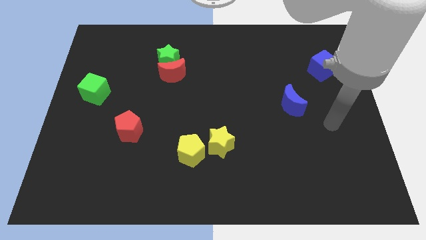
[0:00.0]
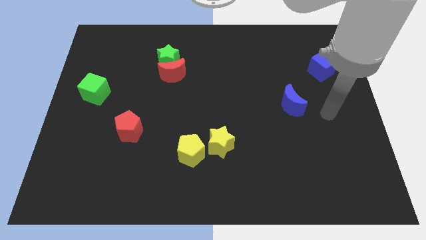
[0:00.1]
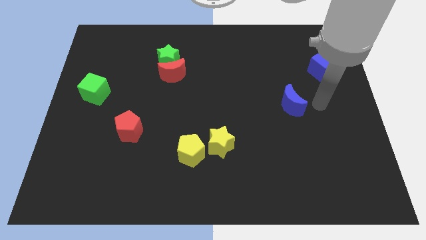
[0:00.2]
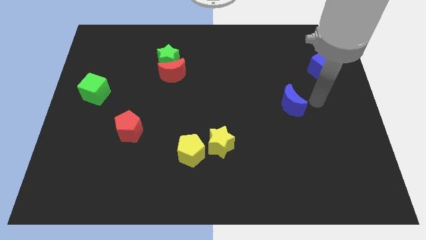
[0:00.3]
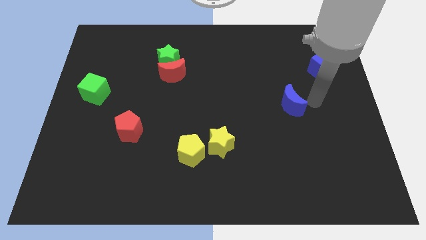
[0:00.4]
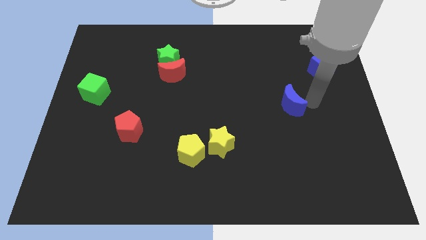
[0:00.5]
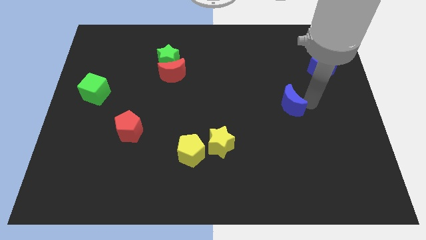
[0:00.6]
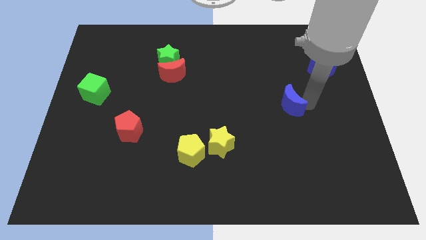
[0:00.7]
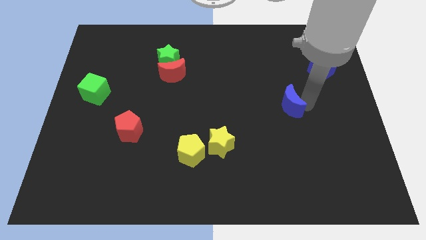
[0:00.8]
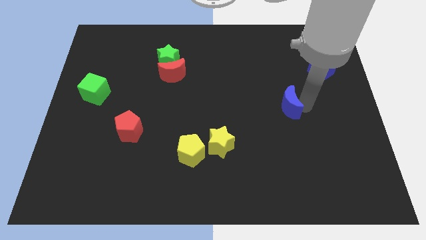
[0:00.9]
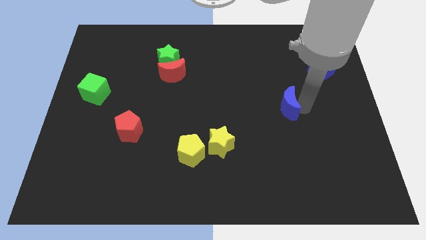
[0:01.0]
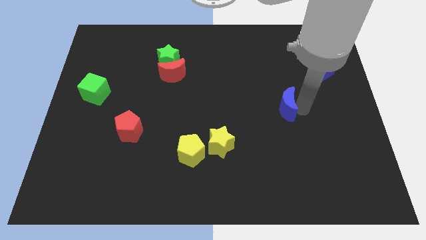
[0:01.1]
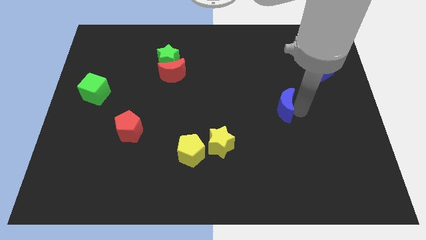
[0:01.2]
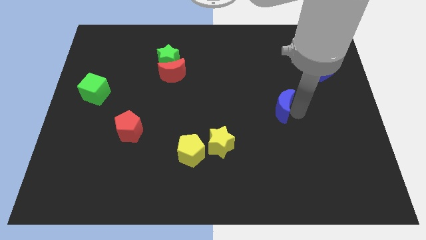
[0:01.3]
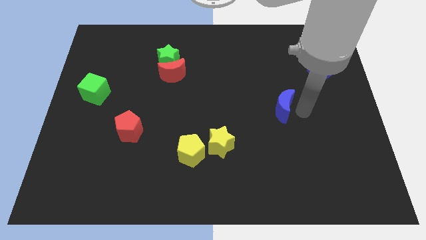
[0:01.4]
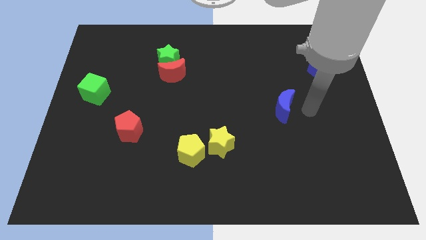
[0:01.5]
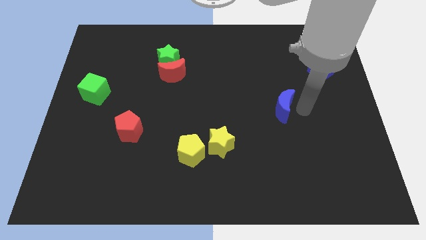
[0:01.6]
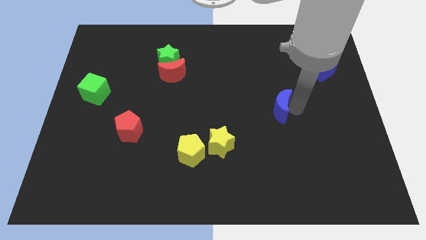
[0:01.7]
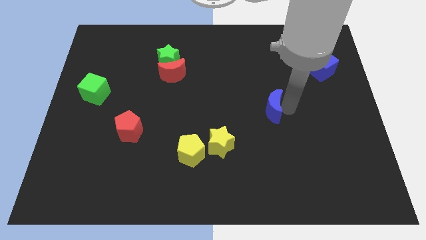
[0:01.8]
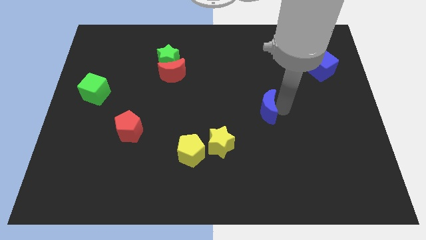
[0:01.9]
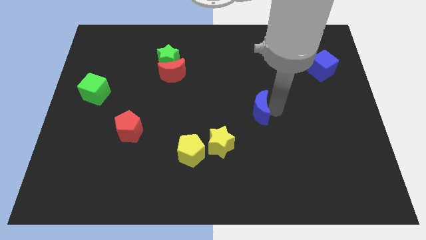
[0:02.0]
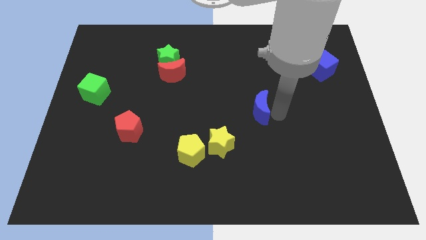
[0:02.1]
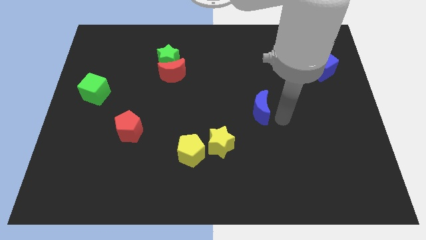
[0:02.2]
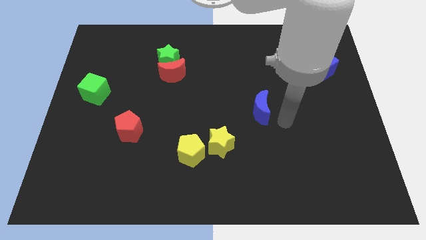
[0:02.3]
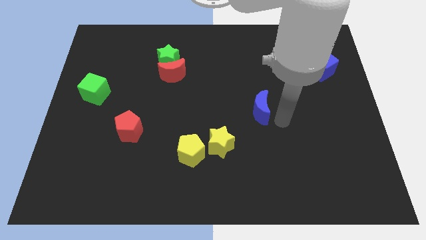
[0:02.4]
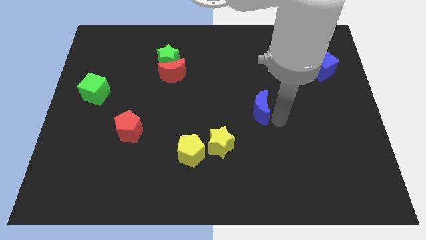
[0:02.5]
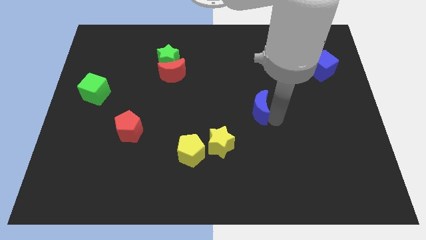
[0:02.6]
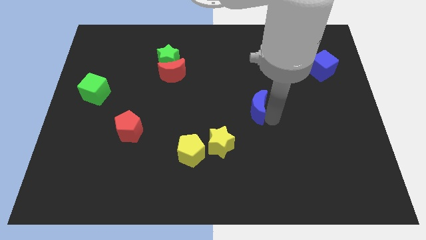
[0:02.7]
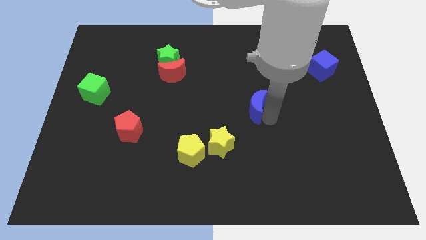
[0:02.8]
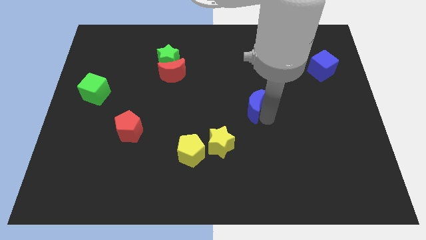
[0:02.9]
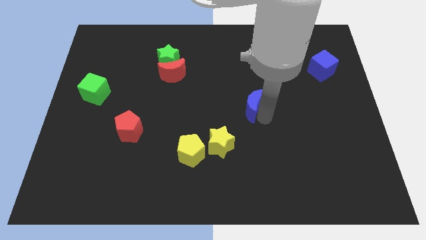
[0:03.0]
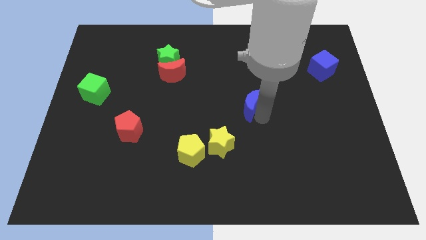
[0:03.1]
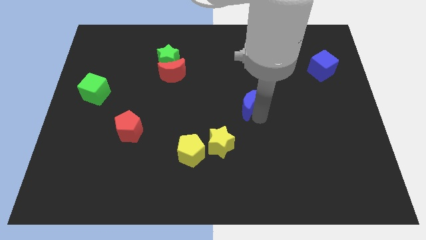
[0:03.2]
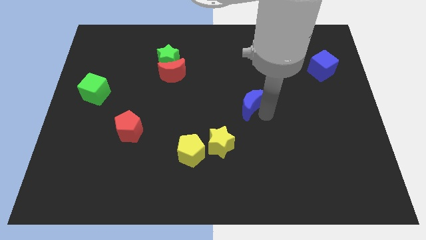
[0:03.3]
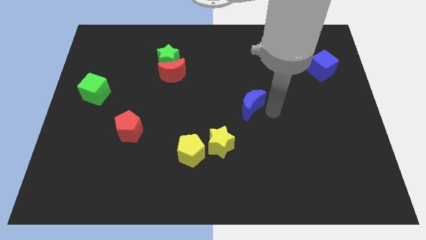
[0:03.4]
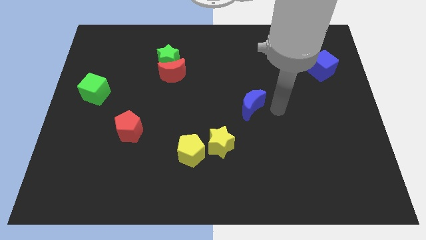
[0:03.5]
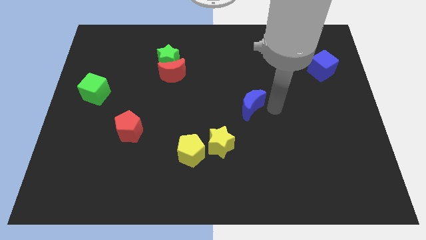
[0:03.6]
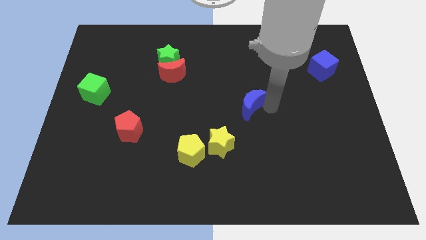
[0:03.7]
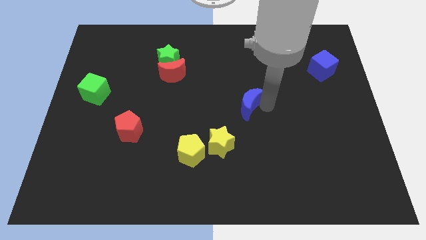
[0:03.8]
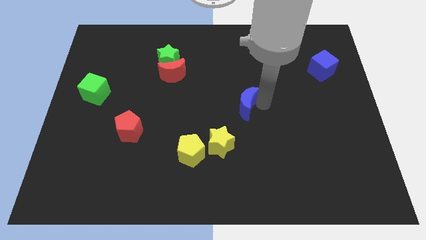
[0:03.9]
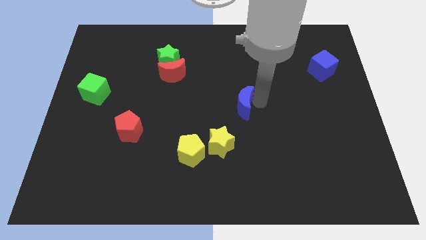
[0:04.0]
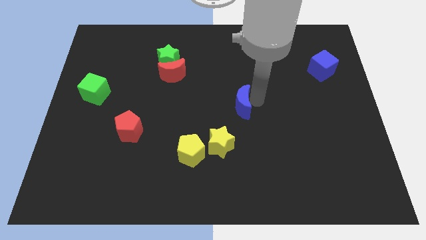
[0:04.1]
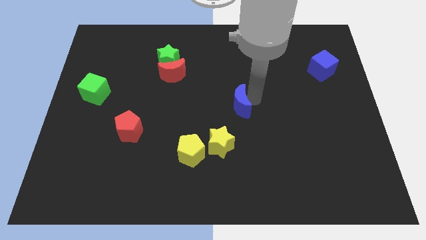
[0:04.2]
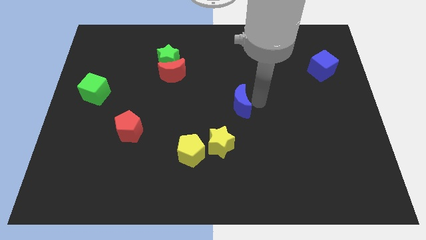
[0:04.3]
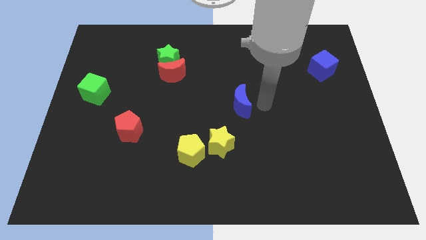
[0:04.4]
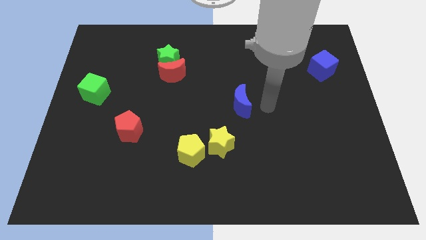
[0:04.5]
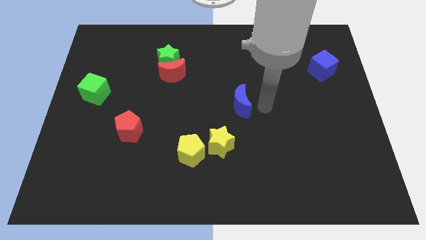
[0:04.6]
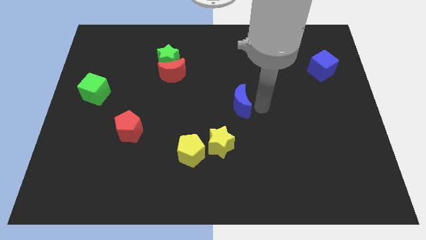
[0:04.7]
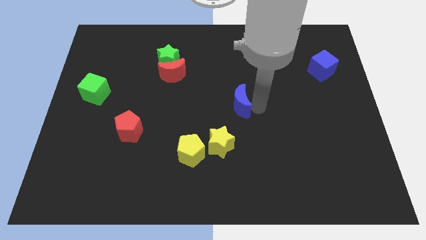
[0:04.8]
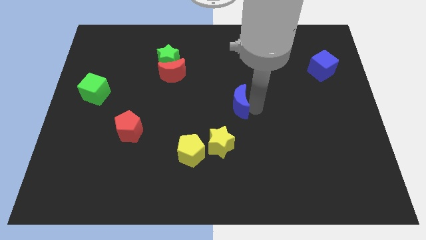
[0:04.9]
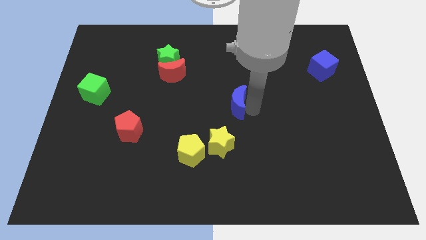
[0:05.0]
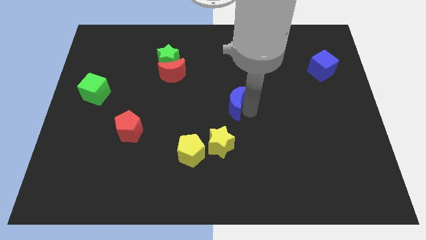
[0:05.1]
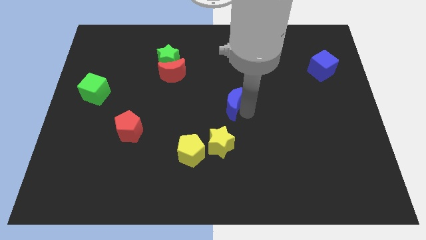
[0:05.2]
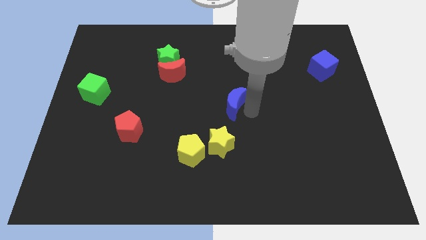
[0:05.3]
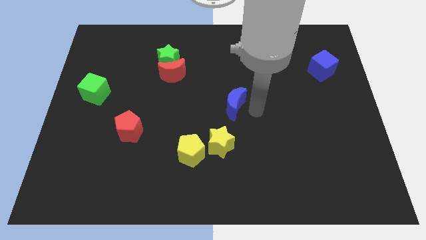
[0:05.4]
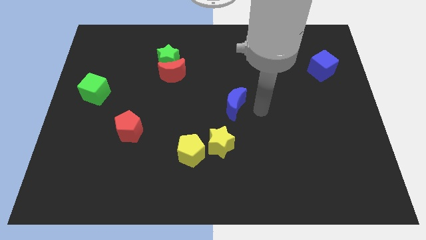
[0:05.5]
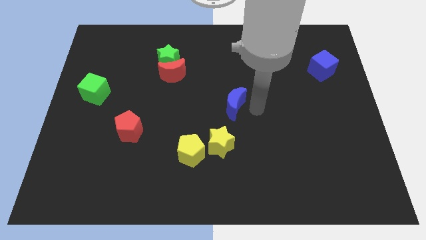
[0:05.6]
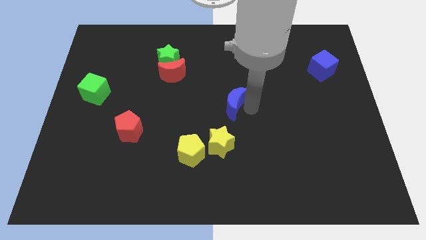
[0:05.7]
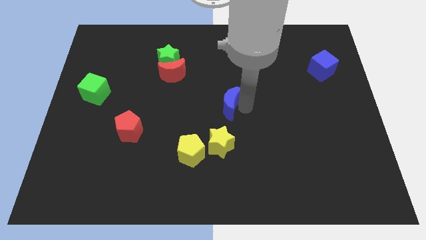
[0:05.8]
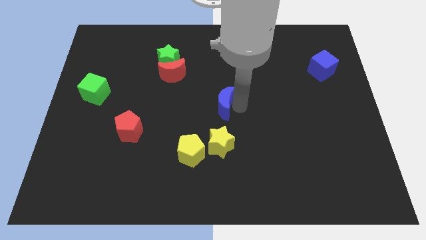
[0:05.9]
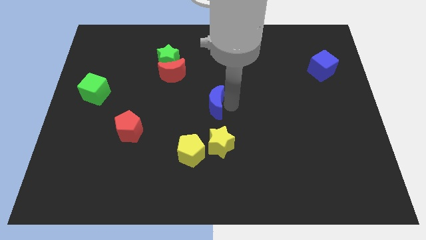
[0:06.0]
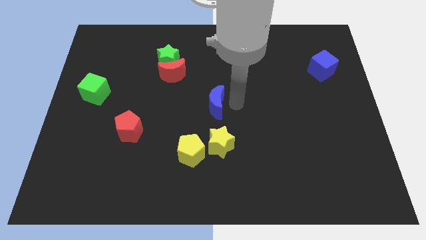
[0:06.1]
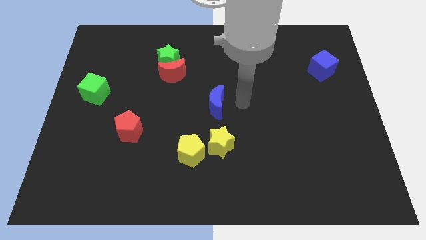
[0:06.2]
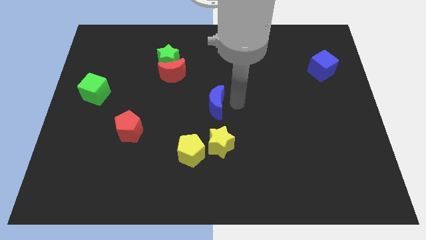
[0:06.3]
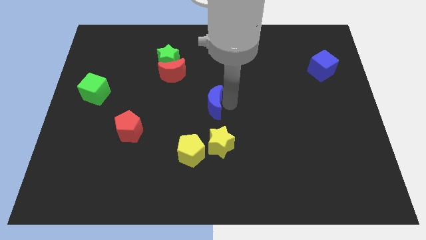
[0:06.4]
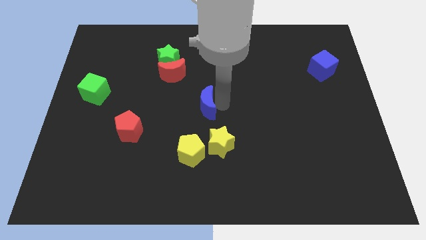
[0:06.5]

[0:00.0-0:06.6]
move the blue moon to the left

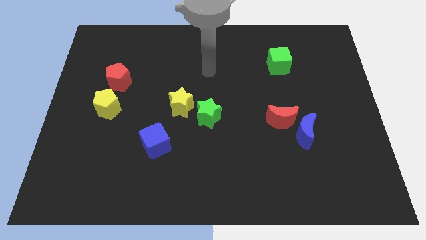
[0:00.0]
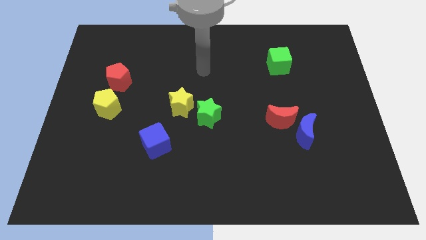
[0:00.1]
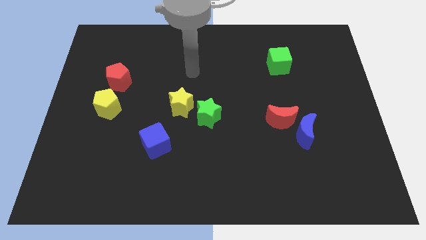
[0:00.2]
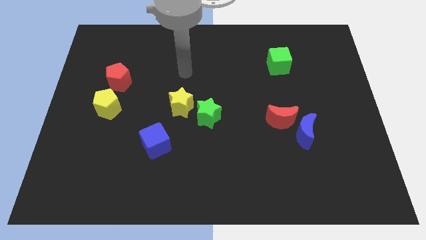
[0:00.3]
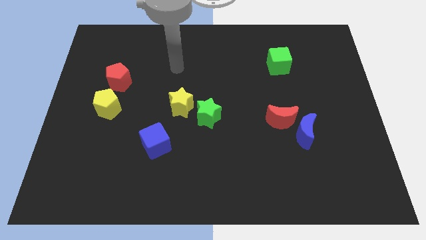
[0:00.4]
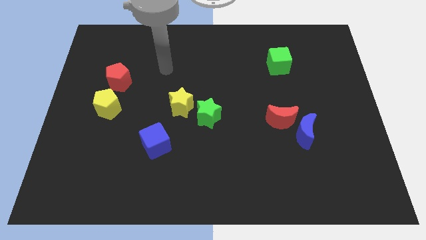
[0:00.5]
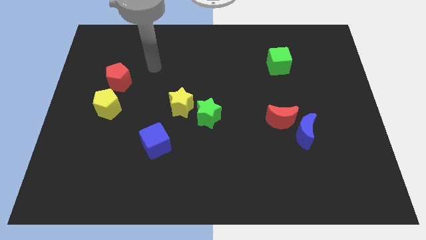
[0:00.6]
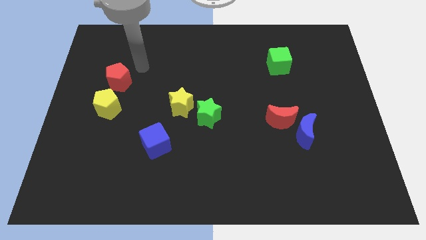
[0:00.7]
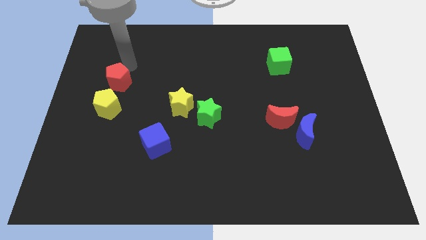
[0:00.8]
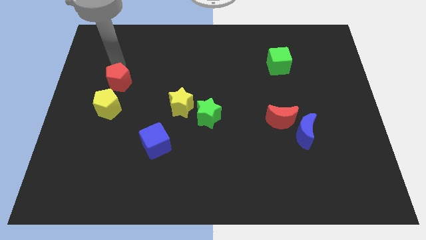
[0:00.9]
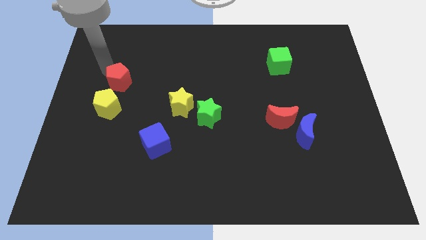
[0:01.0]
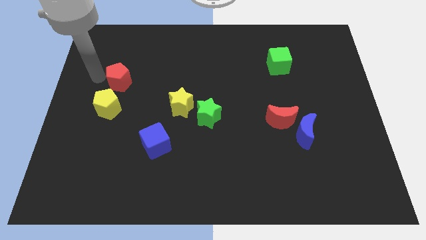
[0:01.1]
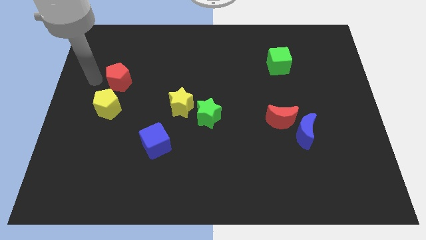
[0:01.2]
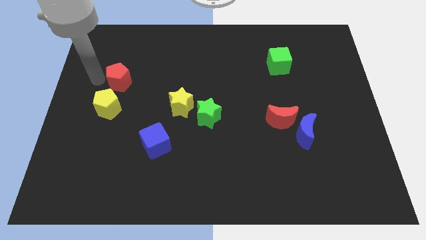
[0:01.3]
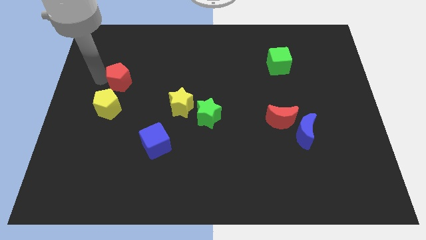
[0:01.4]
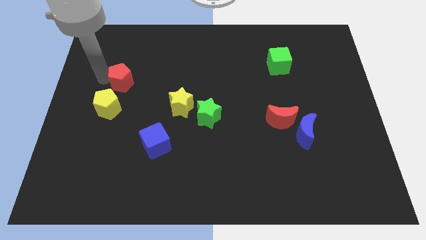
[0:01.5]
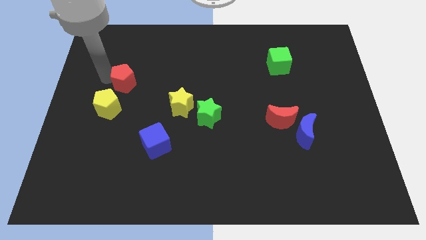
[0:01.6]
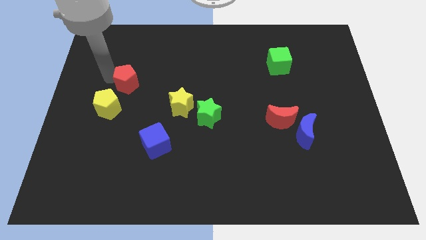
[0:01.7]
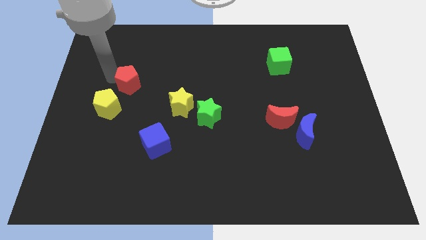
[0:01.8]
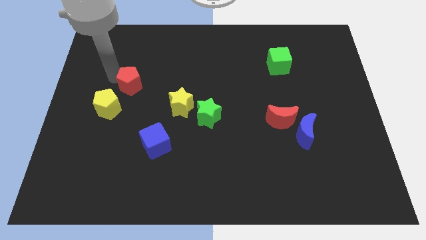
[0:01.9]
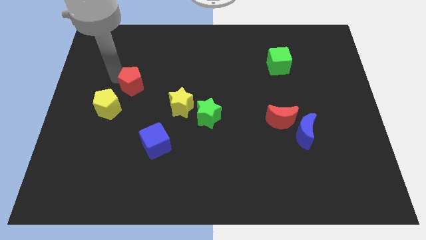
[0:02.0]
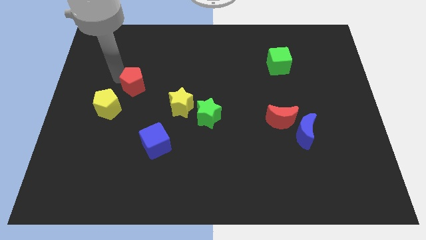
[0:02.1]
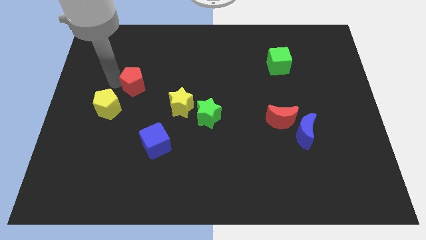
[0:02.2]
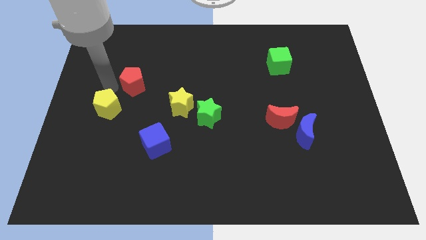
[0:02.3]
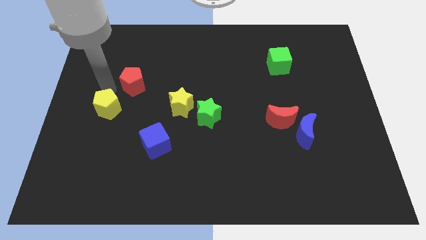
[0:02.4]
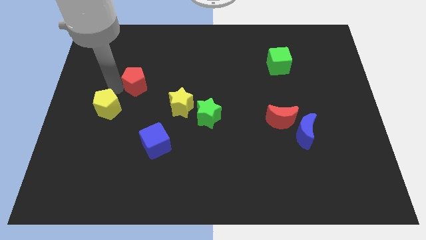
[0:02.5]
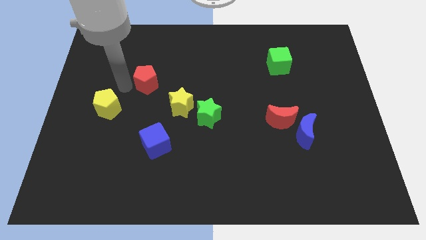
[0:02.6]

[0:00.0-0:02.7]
slide the red pentagon right slightly
